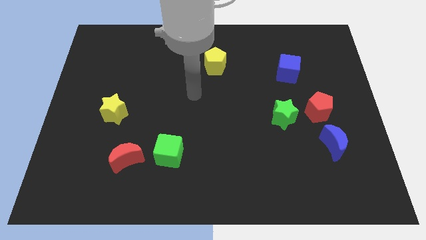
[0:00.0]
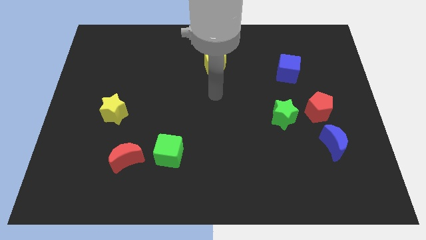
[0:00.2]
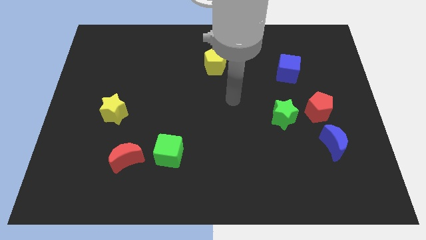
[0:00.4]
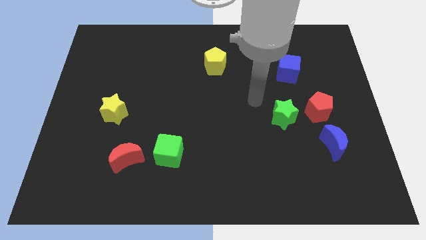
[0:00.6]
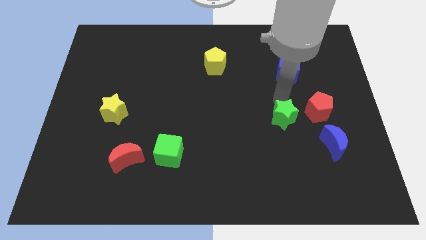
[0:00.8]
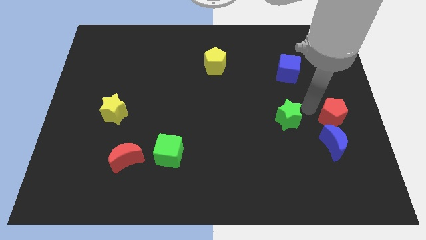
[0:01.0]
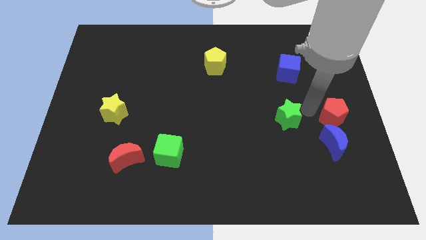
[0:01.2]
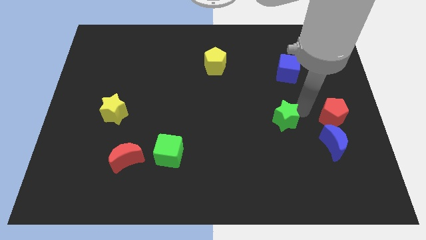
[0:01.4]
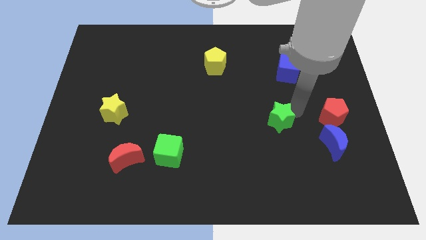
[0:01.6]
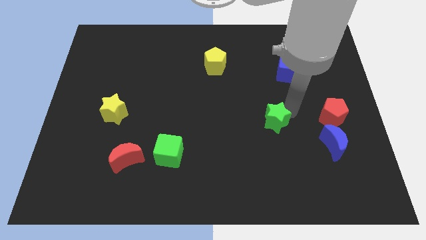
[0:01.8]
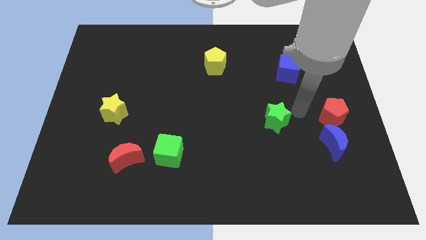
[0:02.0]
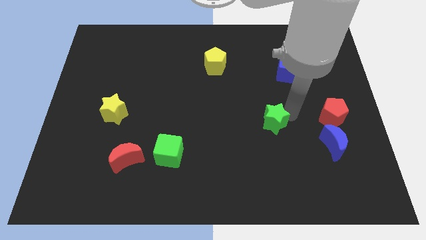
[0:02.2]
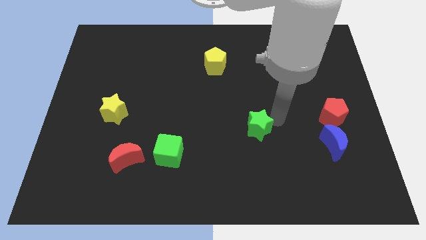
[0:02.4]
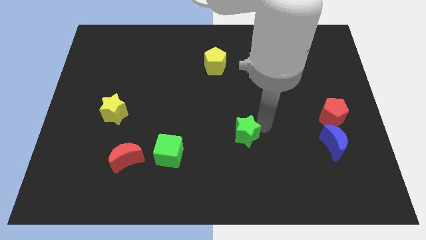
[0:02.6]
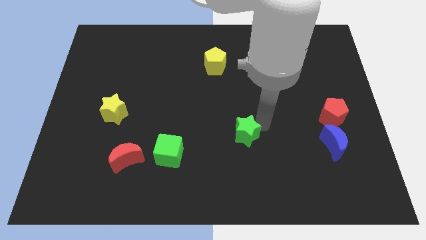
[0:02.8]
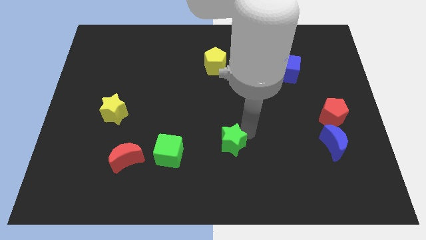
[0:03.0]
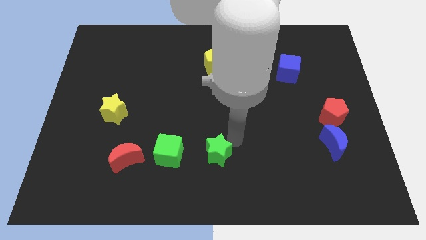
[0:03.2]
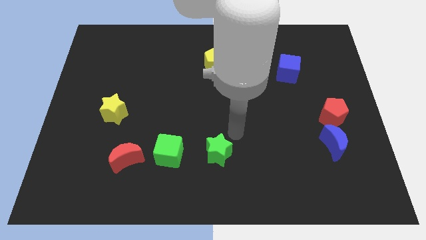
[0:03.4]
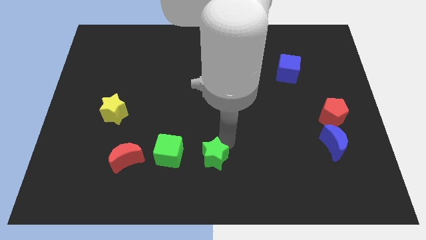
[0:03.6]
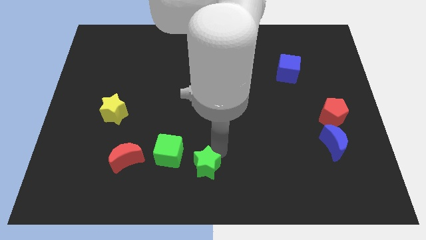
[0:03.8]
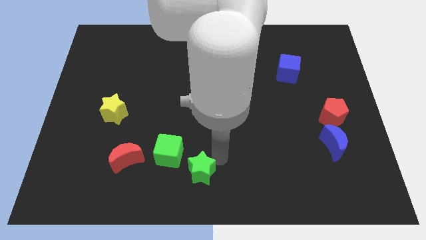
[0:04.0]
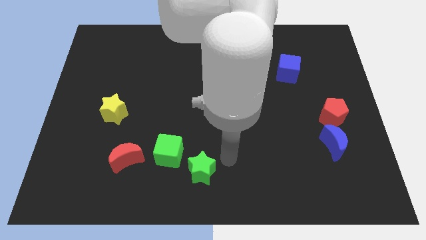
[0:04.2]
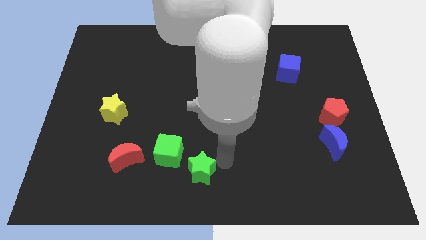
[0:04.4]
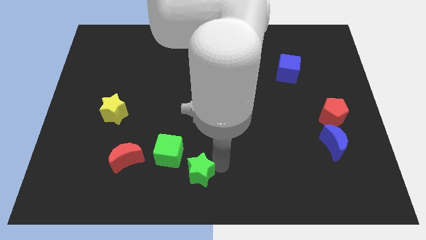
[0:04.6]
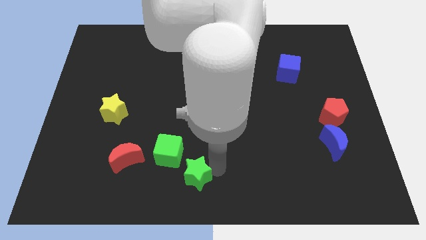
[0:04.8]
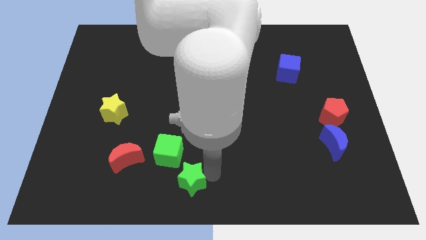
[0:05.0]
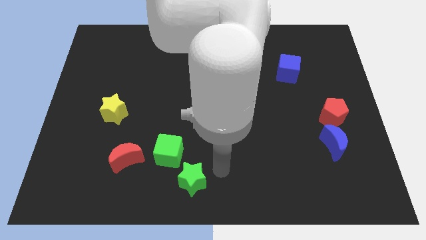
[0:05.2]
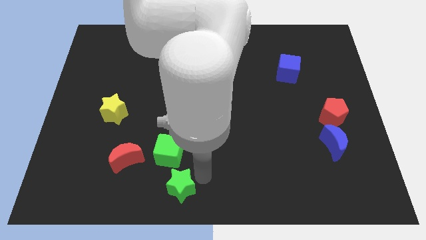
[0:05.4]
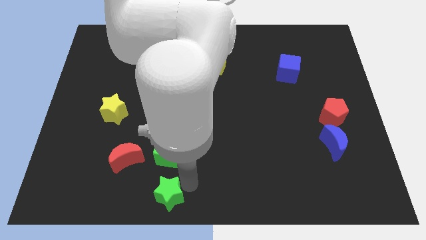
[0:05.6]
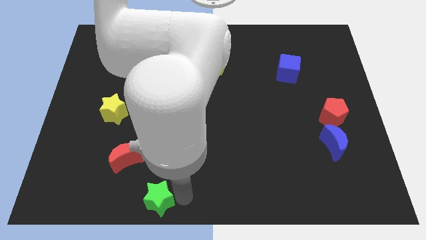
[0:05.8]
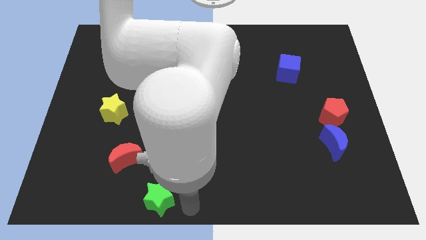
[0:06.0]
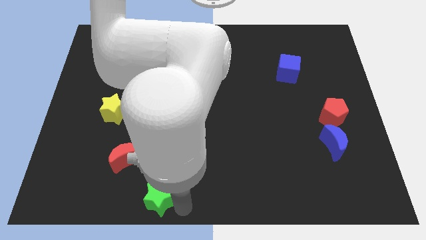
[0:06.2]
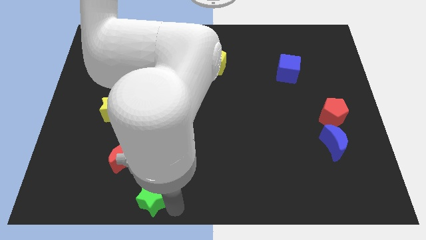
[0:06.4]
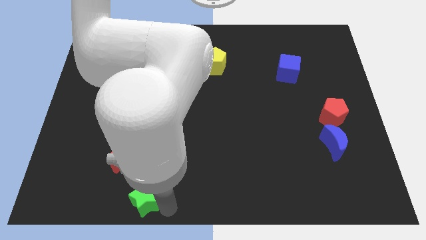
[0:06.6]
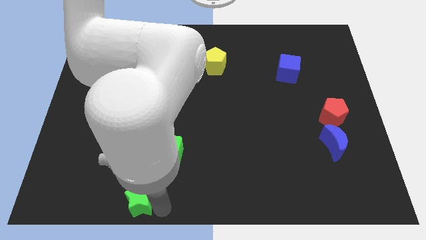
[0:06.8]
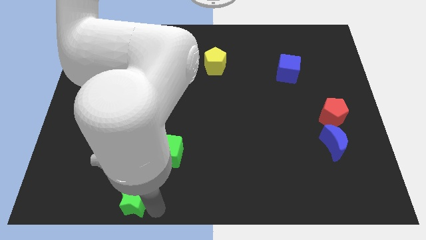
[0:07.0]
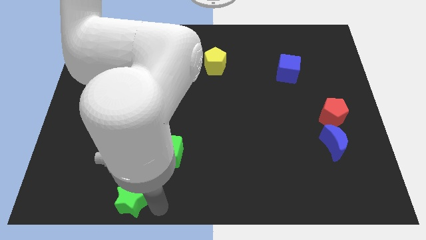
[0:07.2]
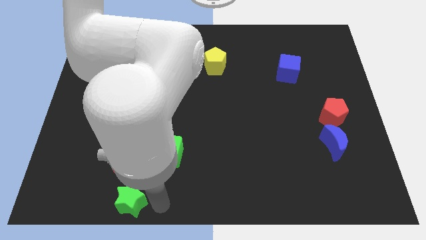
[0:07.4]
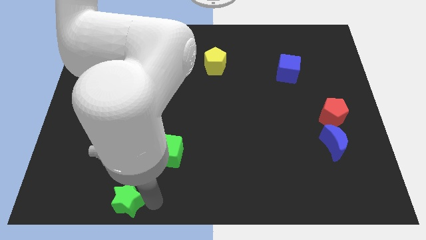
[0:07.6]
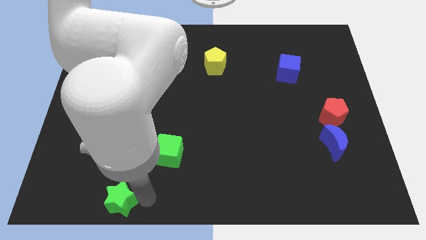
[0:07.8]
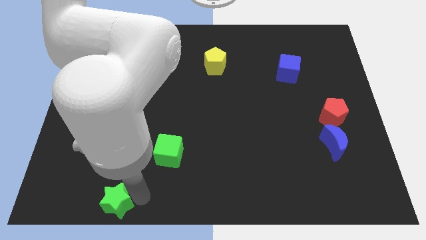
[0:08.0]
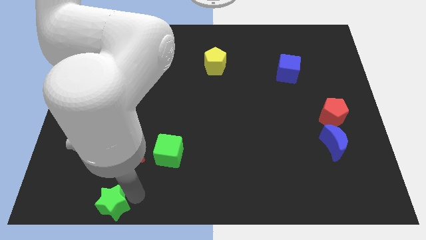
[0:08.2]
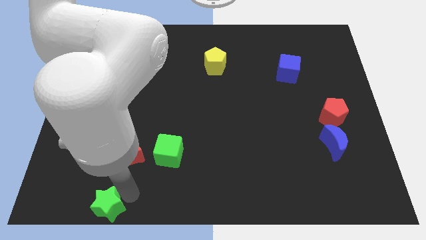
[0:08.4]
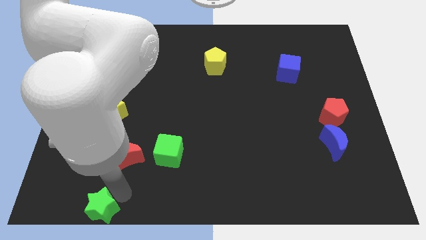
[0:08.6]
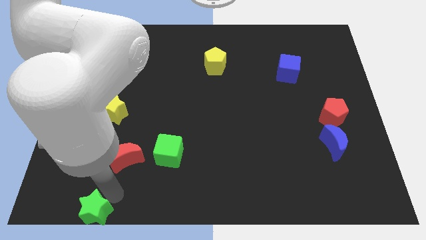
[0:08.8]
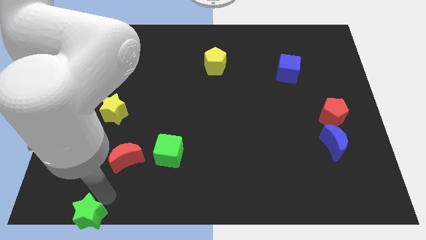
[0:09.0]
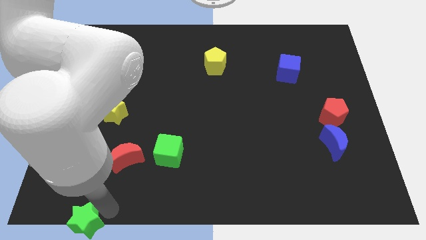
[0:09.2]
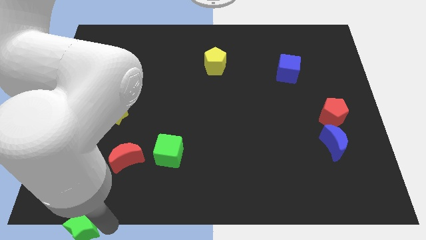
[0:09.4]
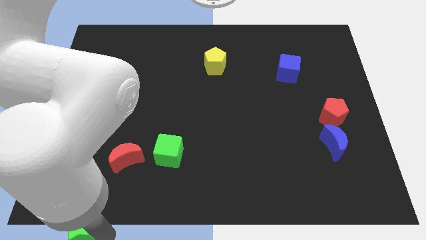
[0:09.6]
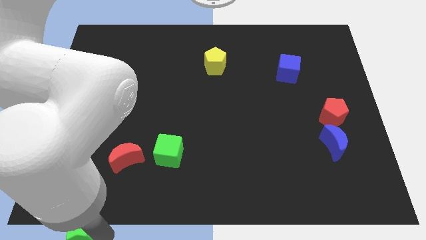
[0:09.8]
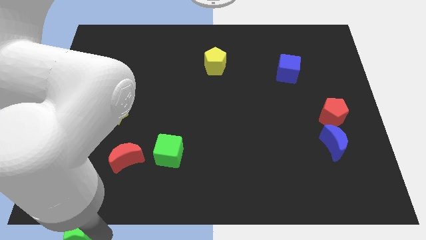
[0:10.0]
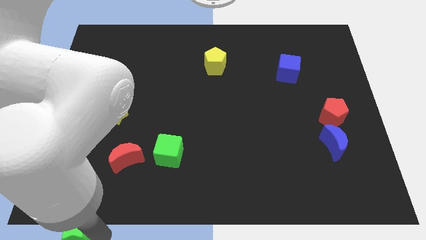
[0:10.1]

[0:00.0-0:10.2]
slide the green star to the bottom left of the board

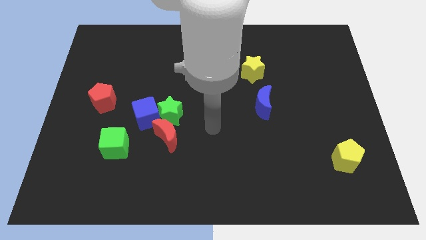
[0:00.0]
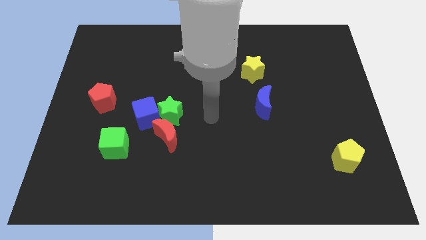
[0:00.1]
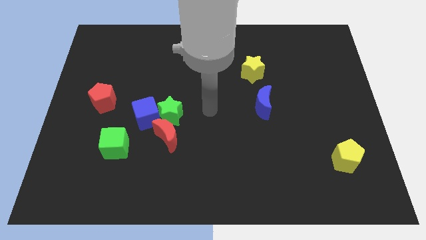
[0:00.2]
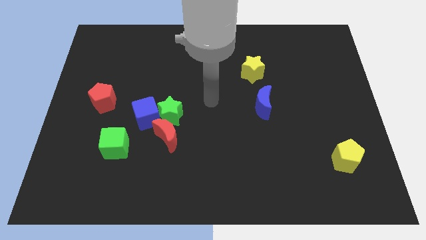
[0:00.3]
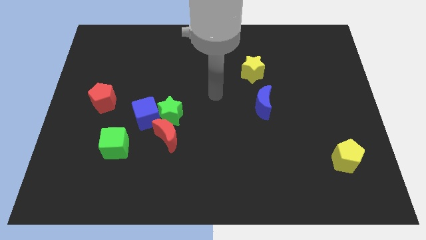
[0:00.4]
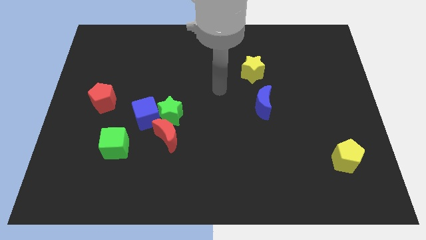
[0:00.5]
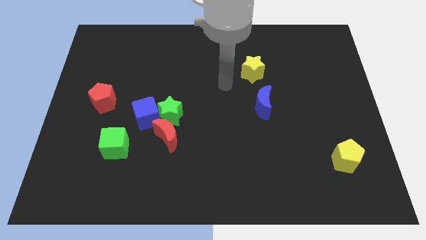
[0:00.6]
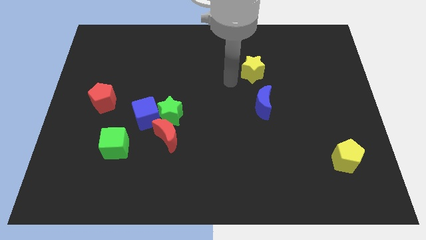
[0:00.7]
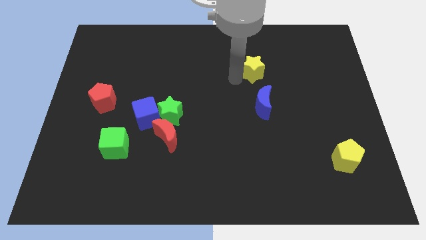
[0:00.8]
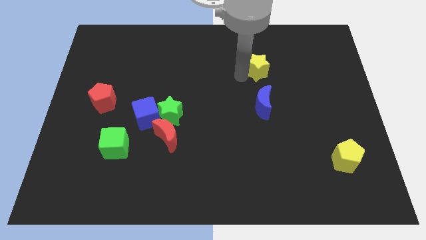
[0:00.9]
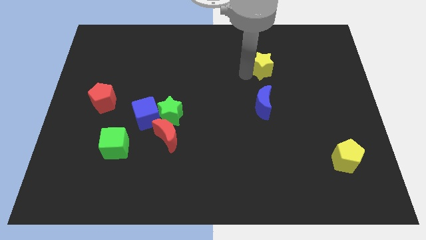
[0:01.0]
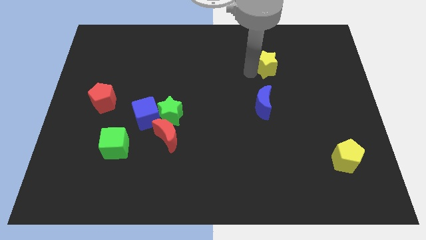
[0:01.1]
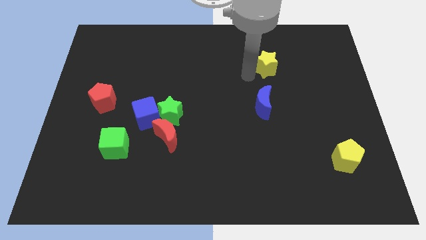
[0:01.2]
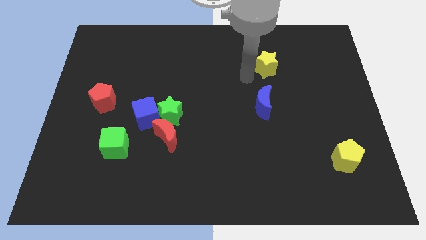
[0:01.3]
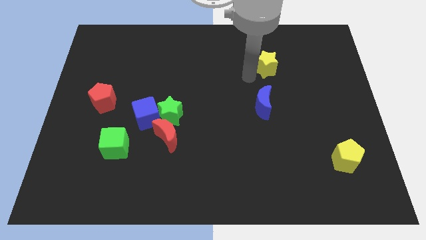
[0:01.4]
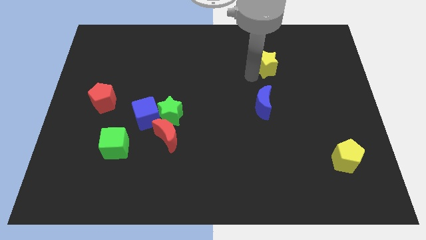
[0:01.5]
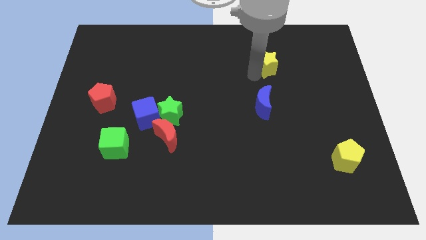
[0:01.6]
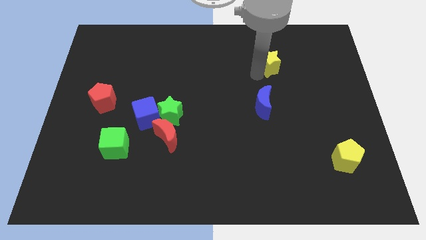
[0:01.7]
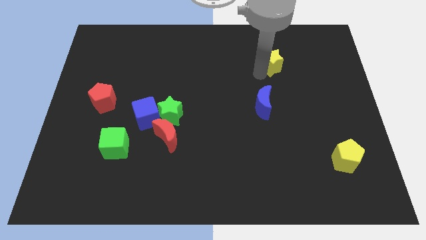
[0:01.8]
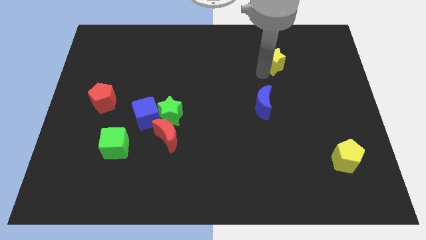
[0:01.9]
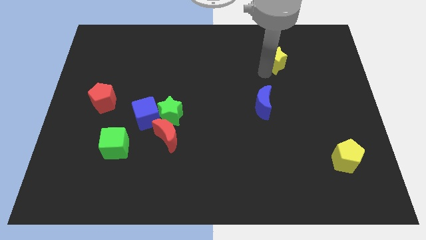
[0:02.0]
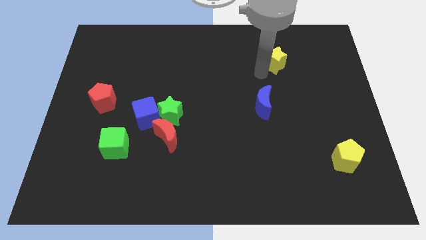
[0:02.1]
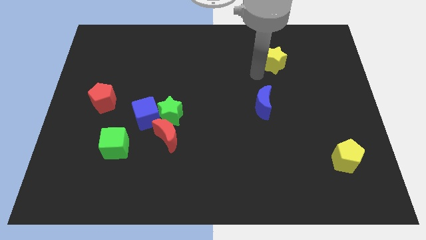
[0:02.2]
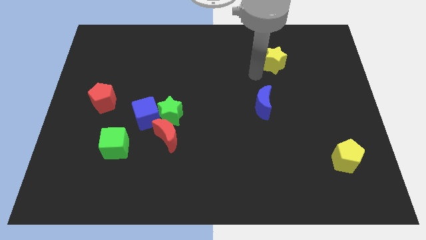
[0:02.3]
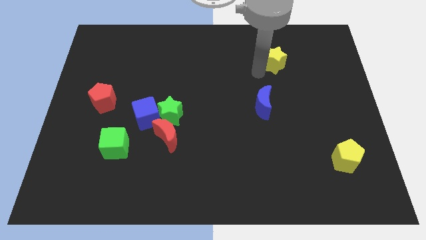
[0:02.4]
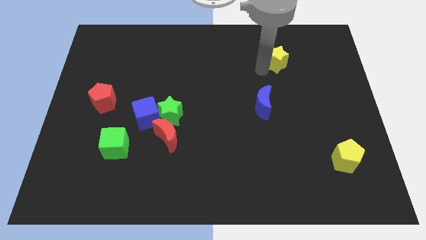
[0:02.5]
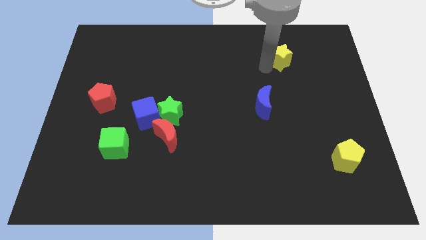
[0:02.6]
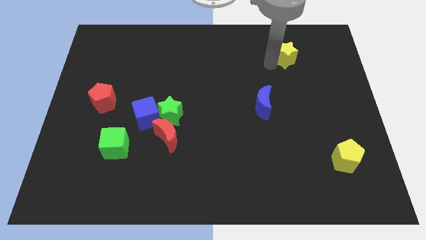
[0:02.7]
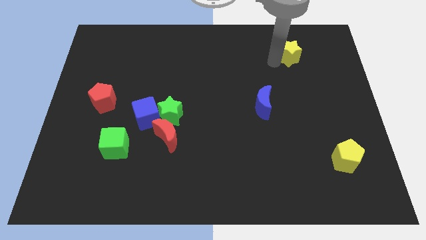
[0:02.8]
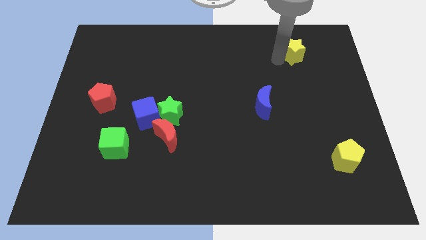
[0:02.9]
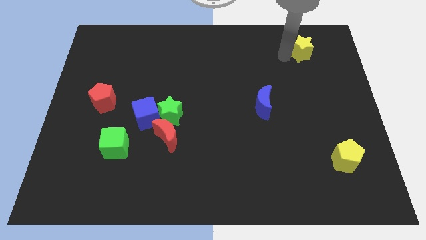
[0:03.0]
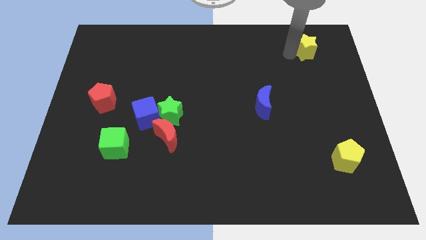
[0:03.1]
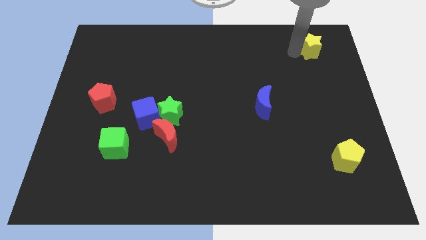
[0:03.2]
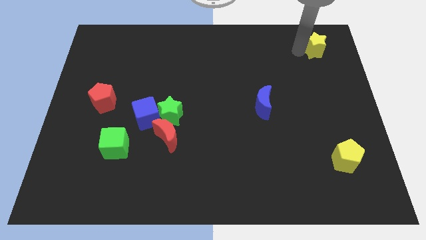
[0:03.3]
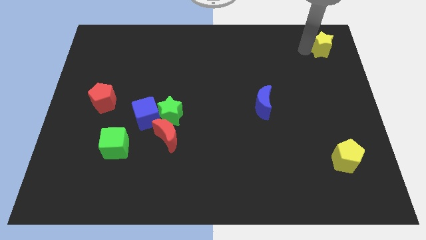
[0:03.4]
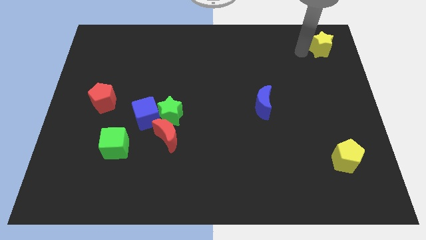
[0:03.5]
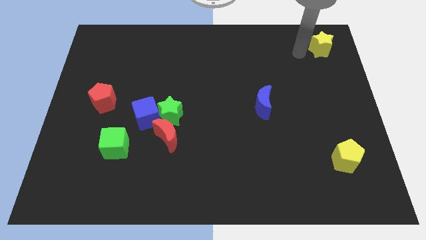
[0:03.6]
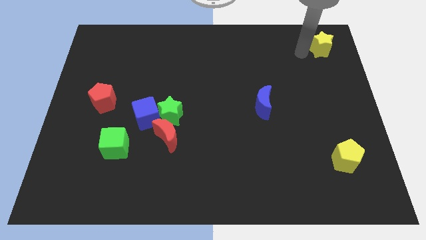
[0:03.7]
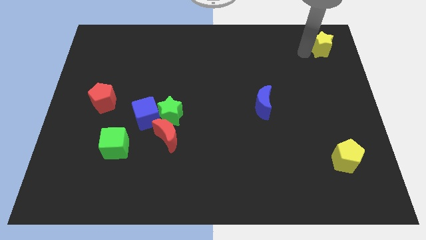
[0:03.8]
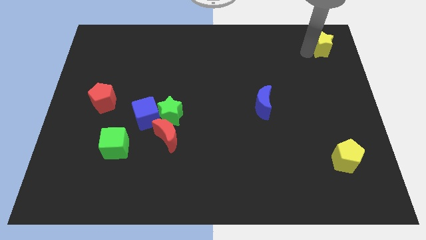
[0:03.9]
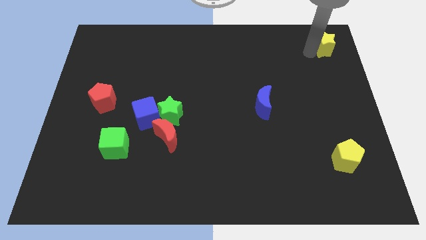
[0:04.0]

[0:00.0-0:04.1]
move the yellow star to the top right of the board
